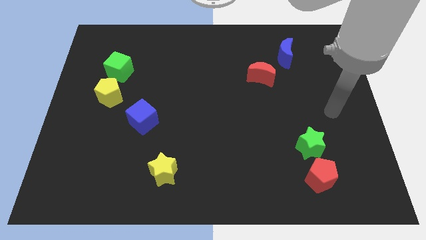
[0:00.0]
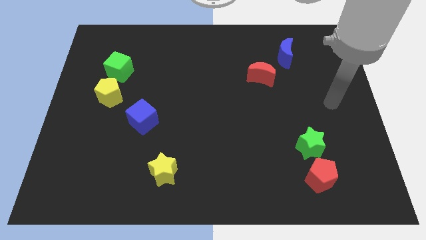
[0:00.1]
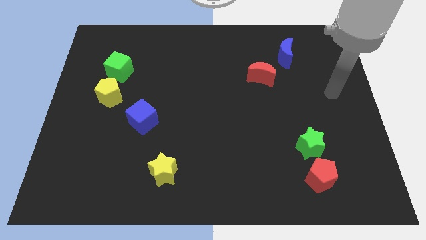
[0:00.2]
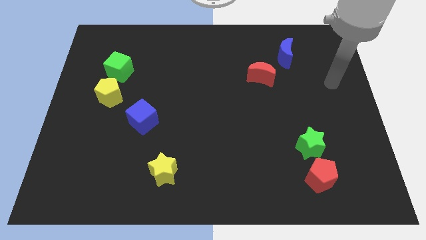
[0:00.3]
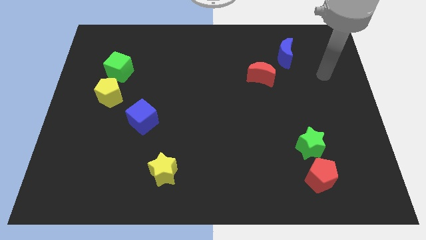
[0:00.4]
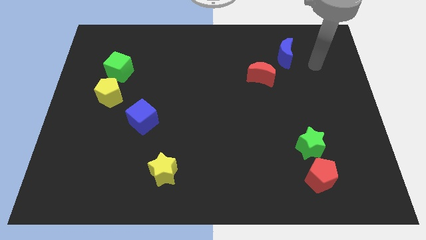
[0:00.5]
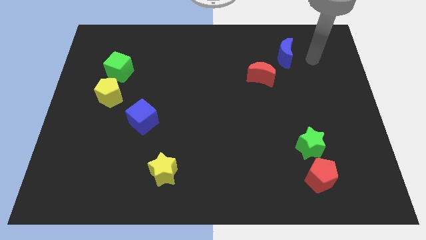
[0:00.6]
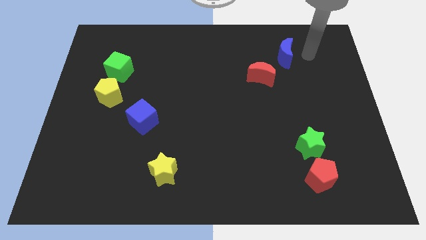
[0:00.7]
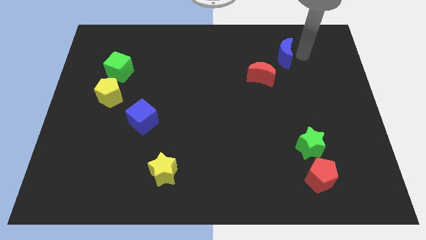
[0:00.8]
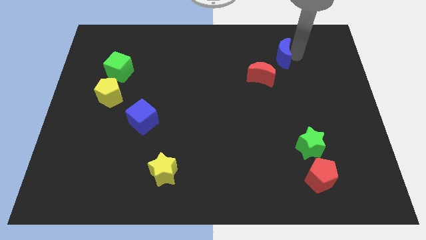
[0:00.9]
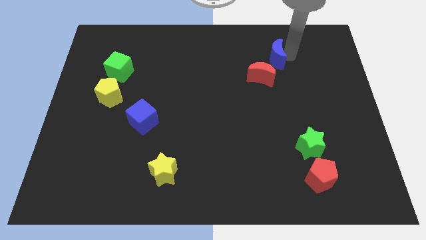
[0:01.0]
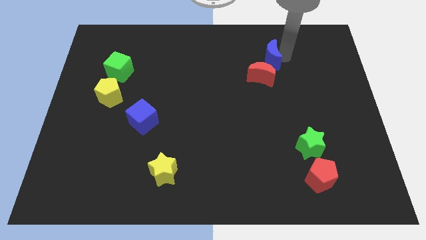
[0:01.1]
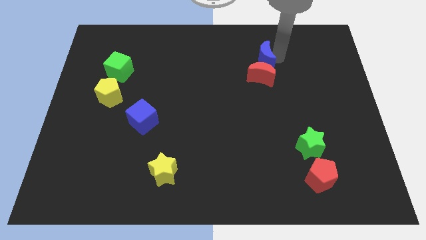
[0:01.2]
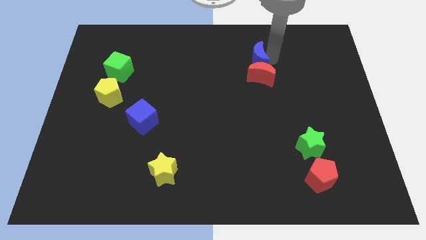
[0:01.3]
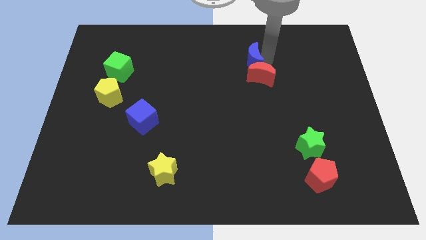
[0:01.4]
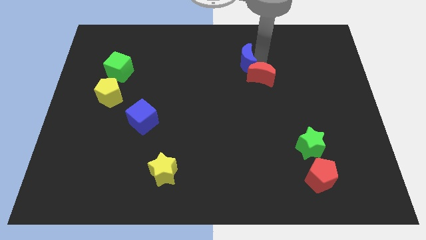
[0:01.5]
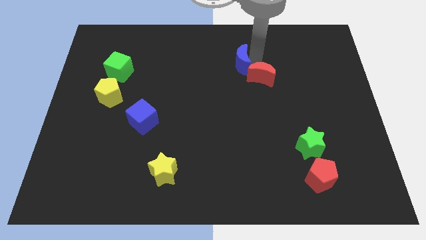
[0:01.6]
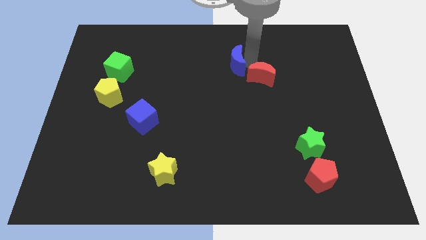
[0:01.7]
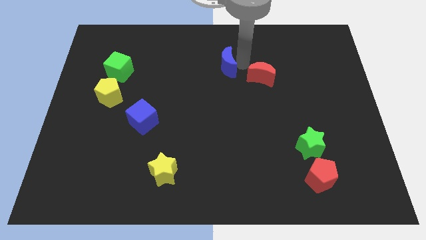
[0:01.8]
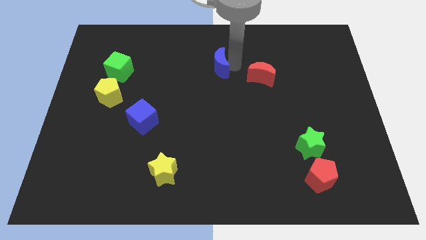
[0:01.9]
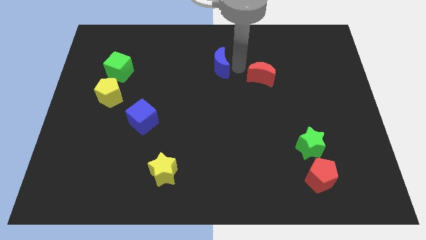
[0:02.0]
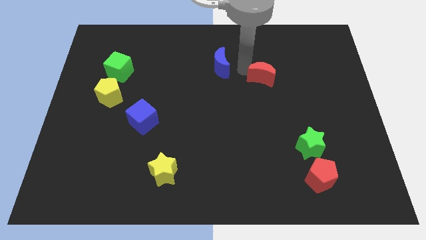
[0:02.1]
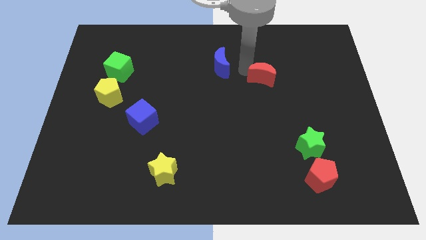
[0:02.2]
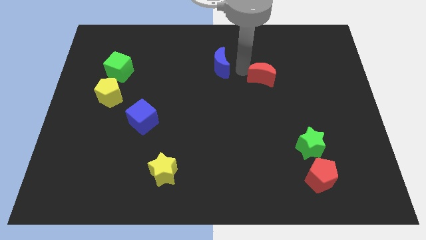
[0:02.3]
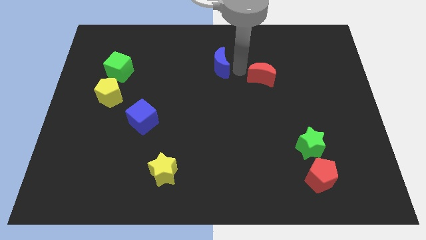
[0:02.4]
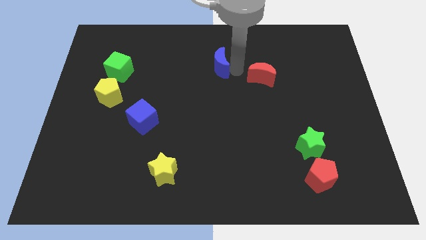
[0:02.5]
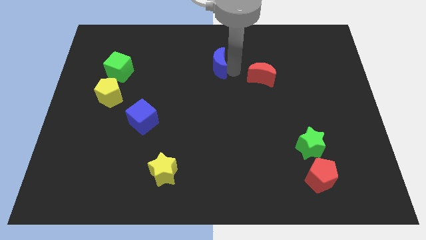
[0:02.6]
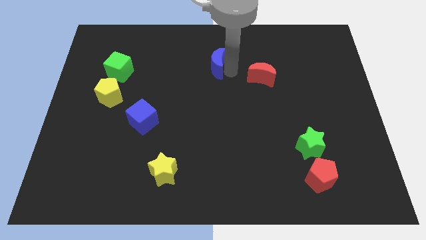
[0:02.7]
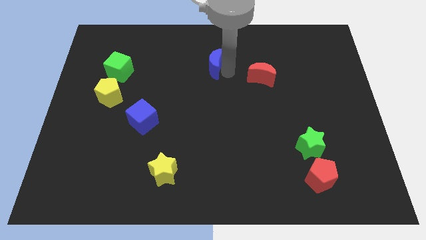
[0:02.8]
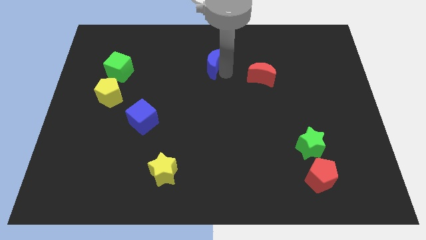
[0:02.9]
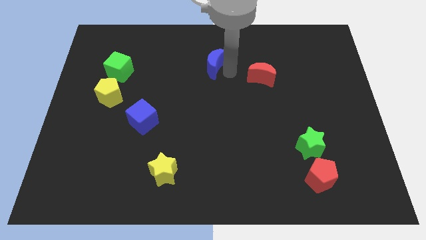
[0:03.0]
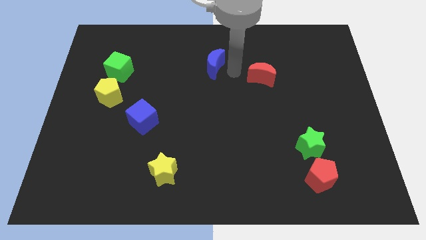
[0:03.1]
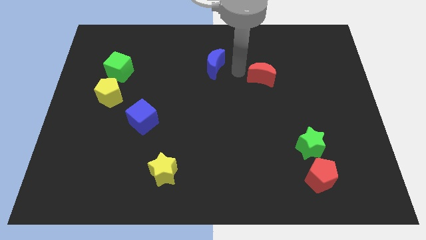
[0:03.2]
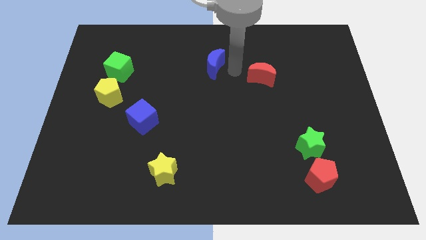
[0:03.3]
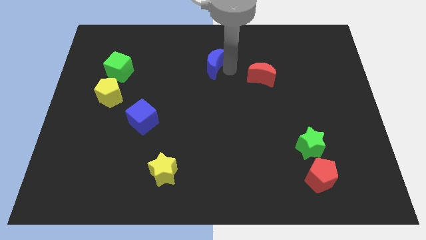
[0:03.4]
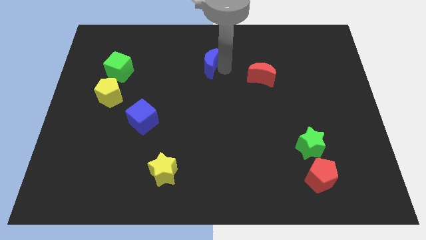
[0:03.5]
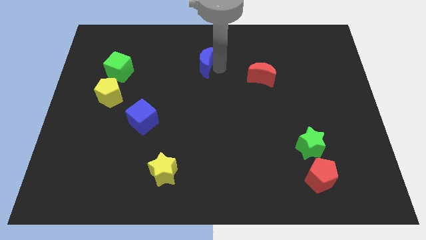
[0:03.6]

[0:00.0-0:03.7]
push the blue moon left

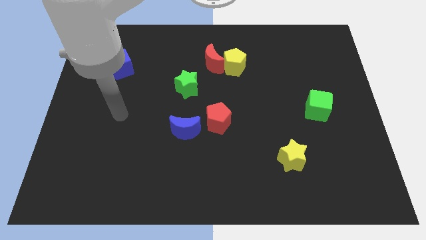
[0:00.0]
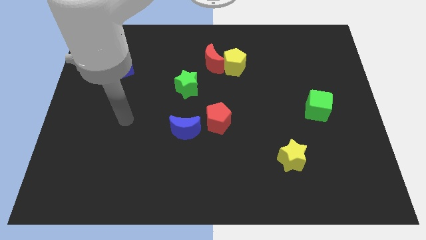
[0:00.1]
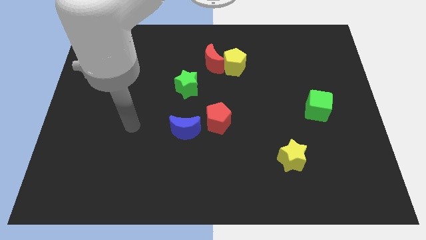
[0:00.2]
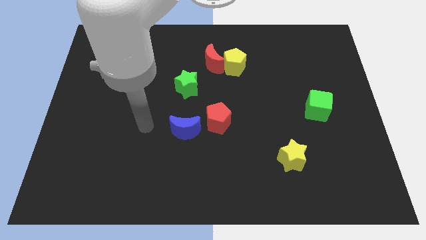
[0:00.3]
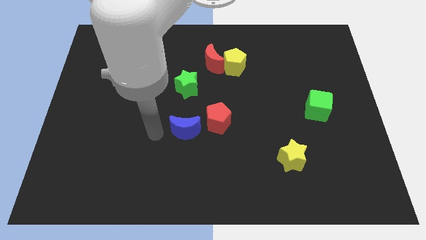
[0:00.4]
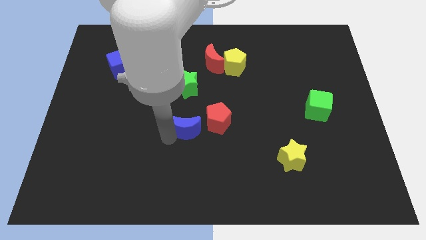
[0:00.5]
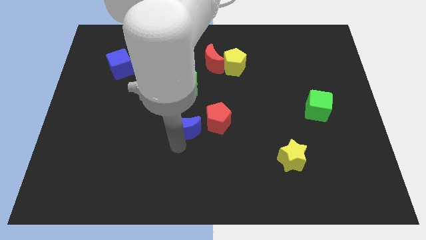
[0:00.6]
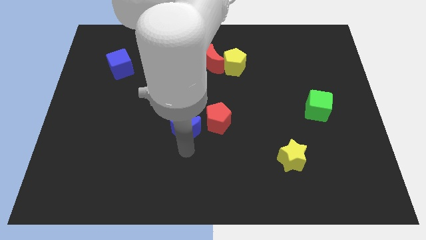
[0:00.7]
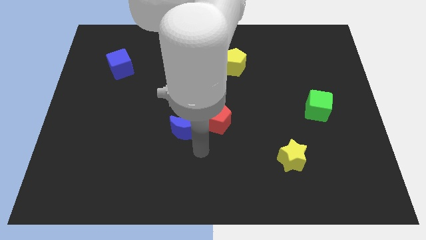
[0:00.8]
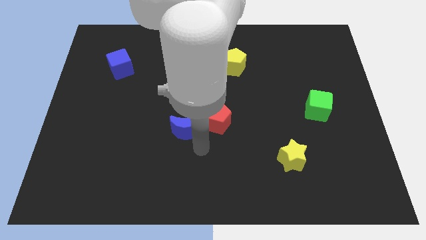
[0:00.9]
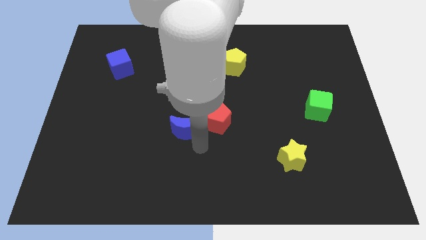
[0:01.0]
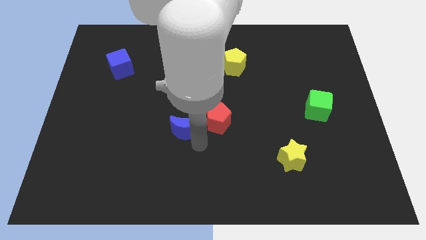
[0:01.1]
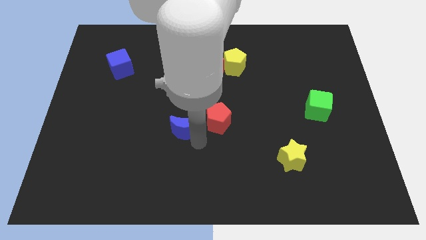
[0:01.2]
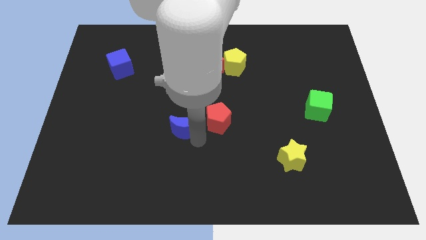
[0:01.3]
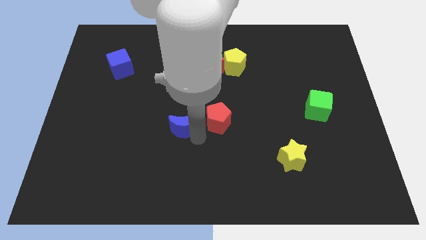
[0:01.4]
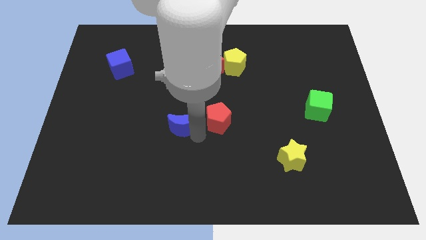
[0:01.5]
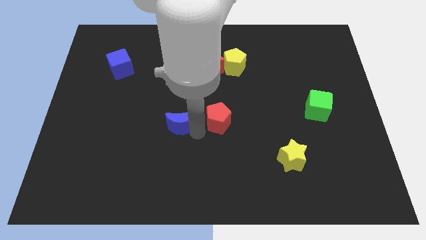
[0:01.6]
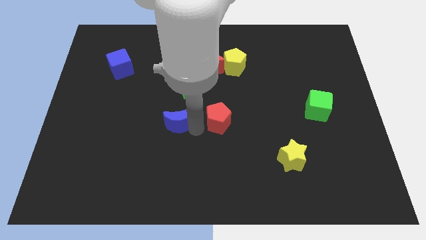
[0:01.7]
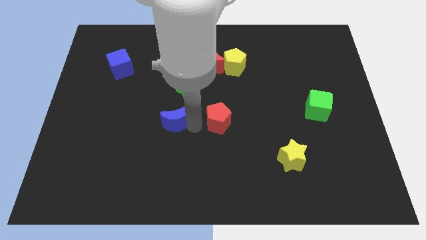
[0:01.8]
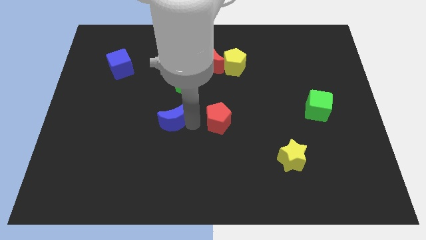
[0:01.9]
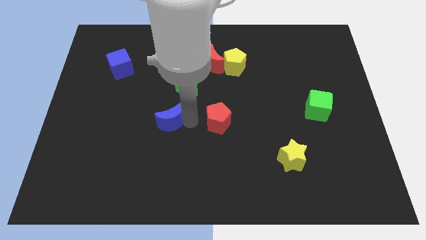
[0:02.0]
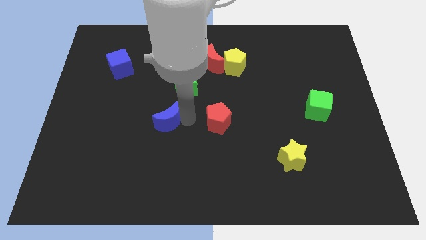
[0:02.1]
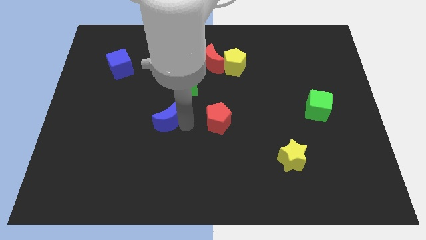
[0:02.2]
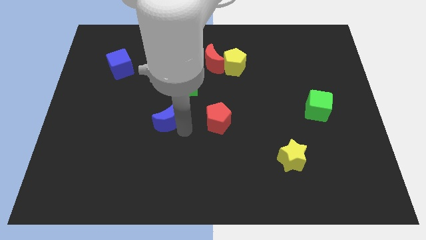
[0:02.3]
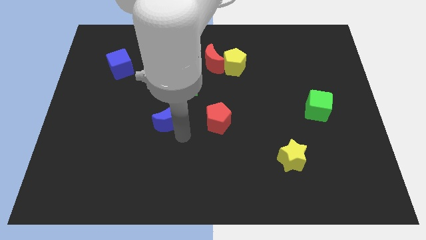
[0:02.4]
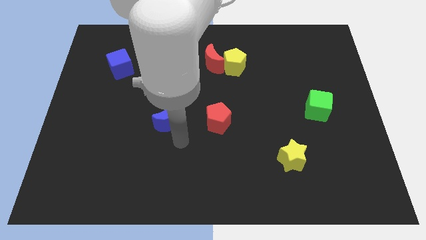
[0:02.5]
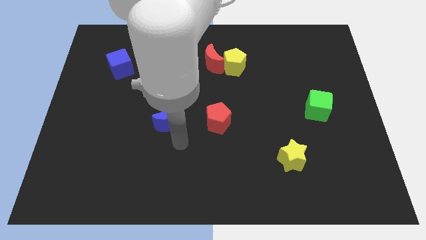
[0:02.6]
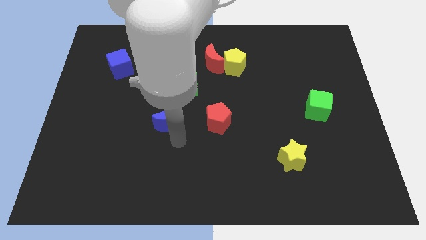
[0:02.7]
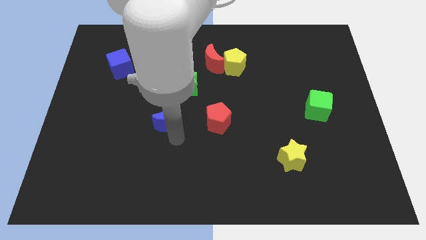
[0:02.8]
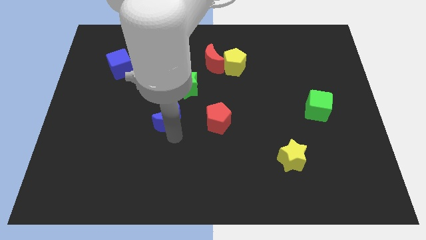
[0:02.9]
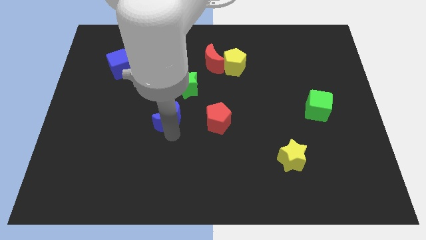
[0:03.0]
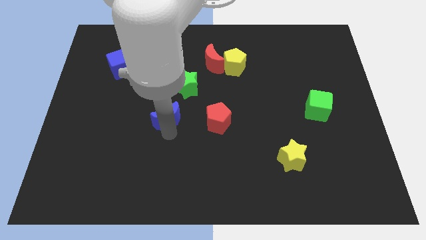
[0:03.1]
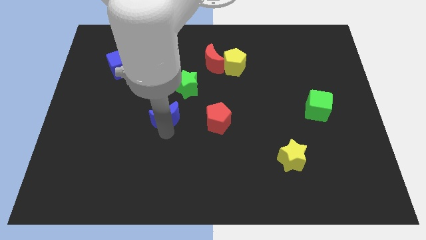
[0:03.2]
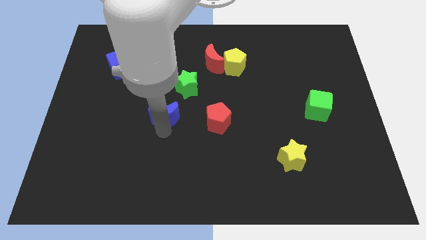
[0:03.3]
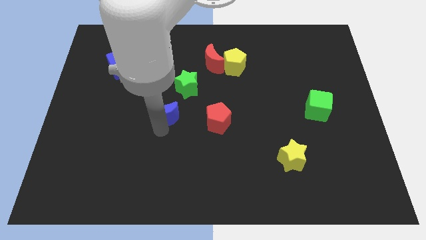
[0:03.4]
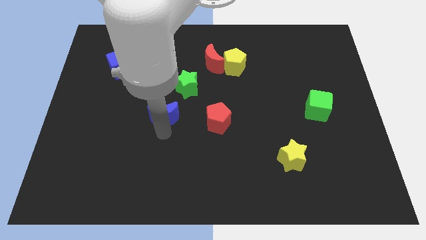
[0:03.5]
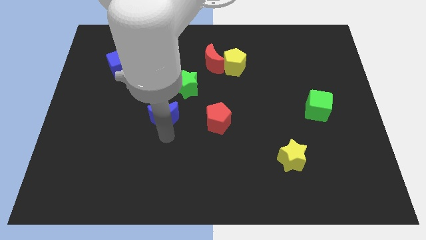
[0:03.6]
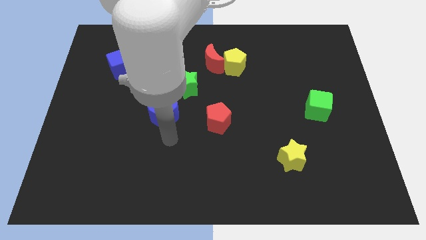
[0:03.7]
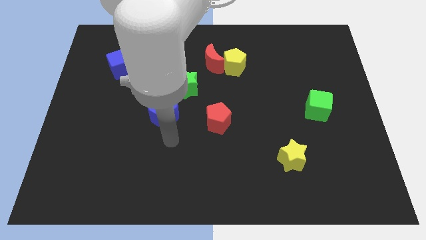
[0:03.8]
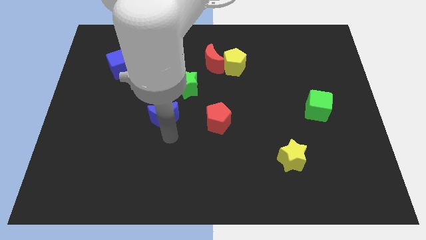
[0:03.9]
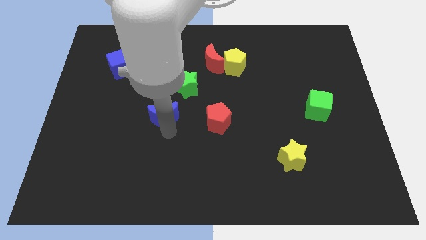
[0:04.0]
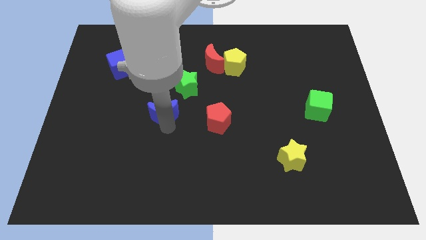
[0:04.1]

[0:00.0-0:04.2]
push the blue moon a little up and to the left
